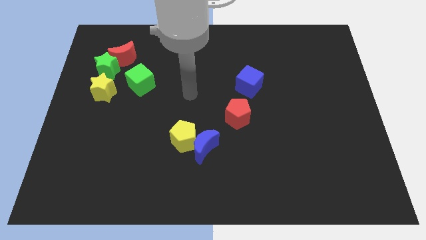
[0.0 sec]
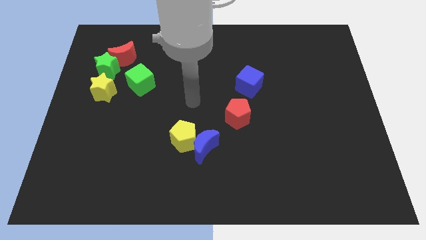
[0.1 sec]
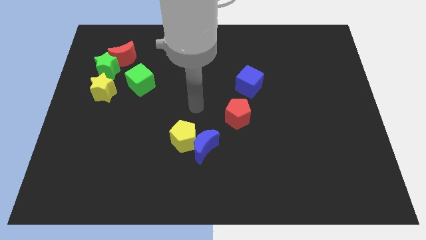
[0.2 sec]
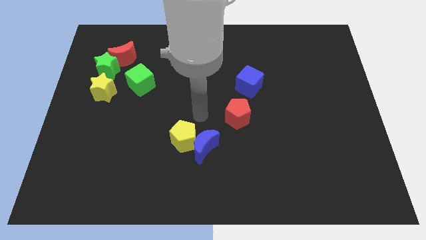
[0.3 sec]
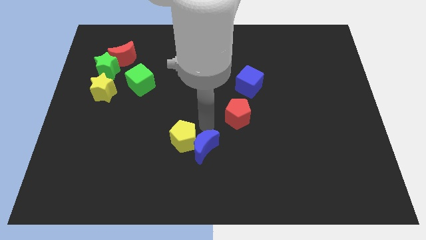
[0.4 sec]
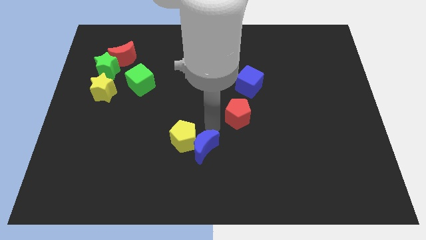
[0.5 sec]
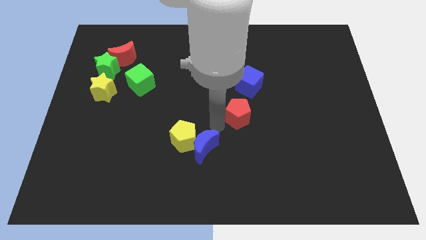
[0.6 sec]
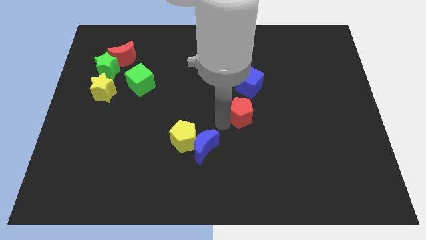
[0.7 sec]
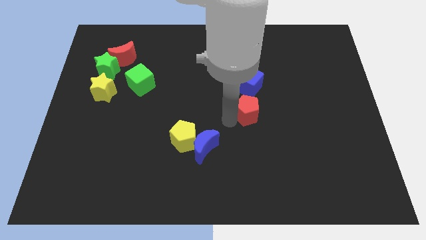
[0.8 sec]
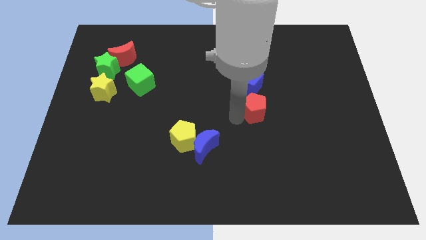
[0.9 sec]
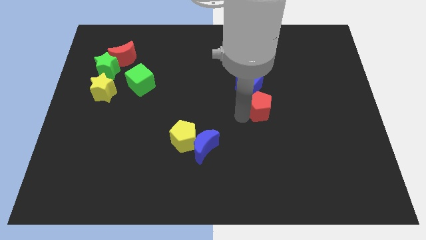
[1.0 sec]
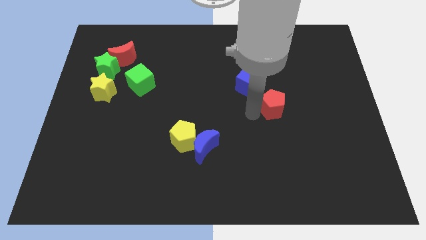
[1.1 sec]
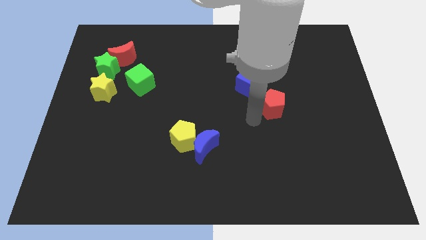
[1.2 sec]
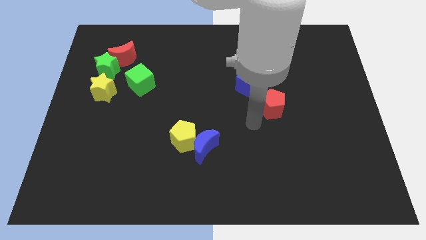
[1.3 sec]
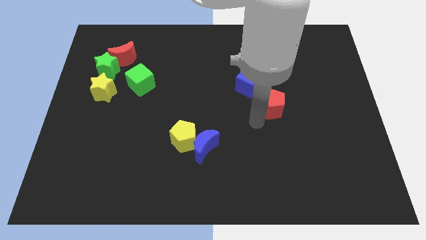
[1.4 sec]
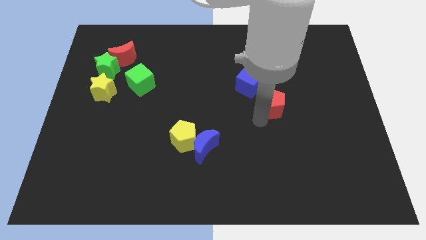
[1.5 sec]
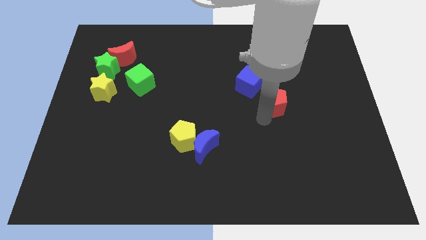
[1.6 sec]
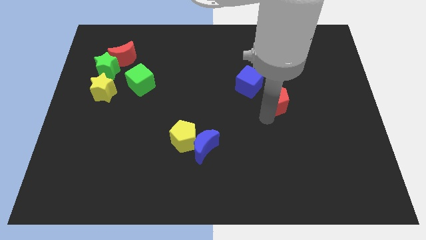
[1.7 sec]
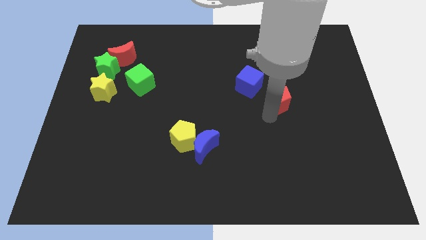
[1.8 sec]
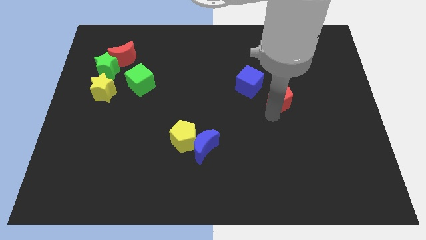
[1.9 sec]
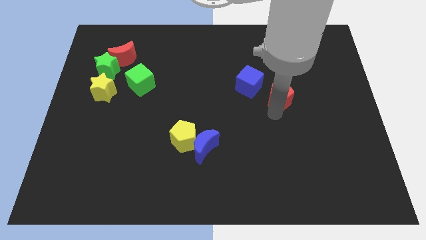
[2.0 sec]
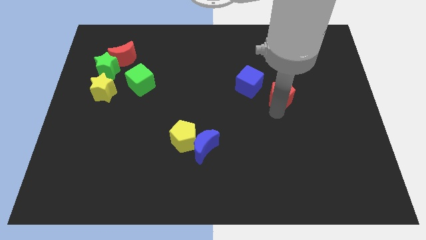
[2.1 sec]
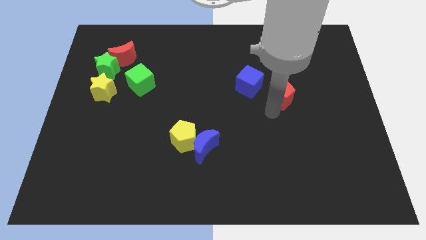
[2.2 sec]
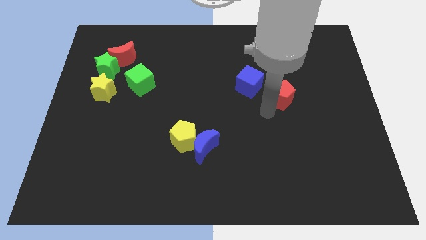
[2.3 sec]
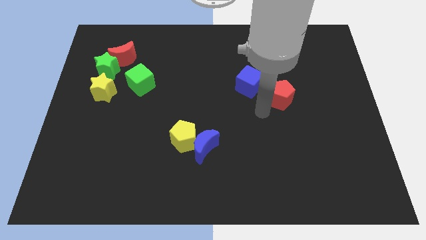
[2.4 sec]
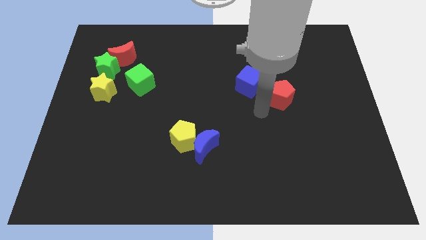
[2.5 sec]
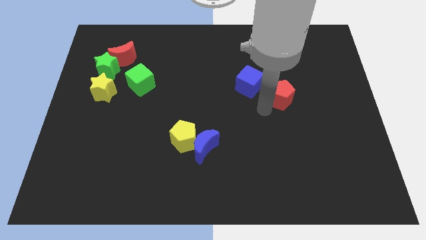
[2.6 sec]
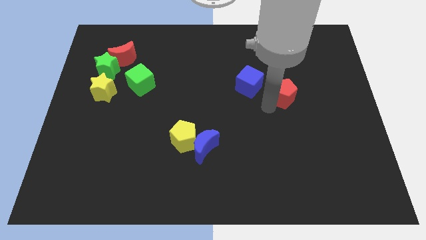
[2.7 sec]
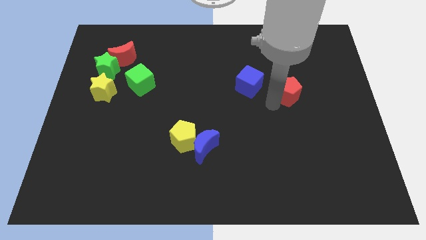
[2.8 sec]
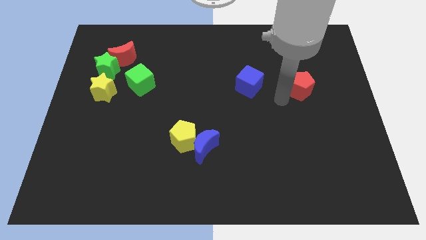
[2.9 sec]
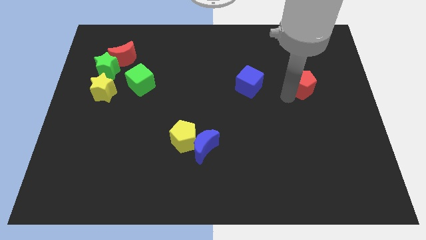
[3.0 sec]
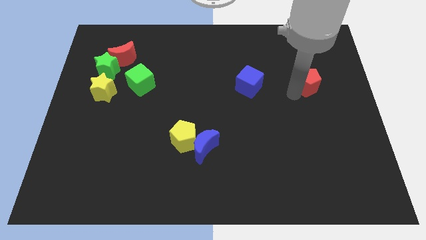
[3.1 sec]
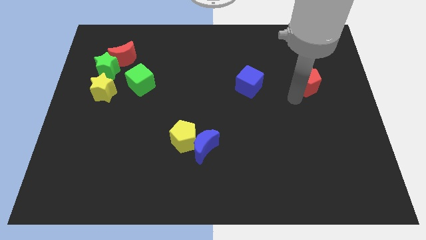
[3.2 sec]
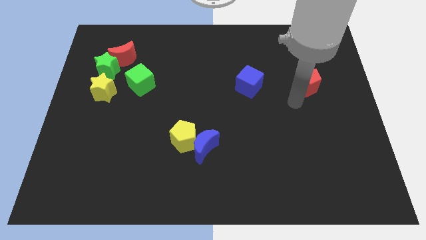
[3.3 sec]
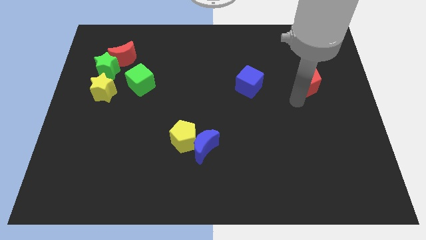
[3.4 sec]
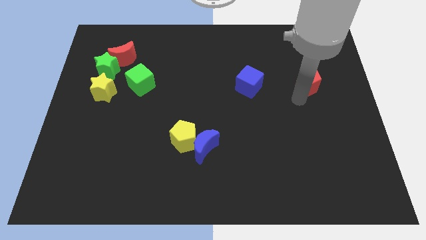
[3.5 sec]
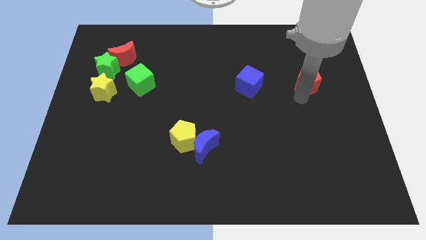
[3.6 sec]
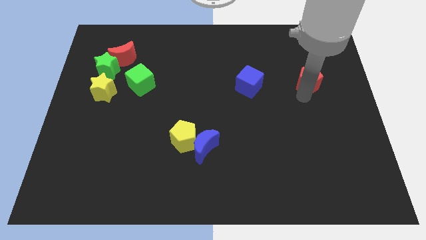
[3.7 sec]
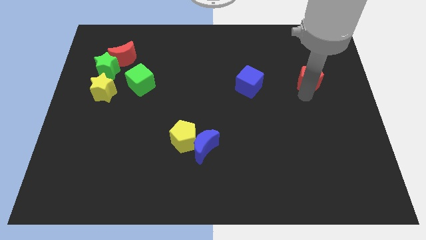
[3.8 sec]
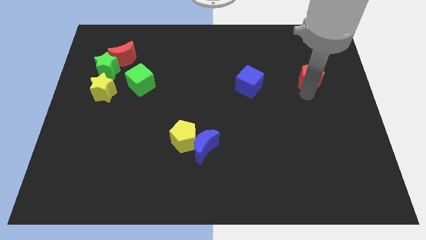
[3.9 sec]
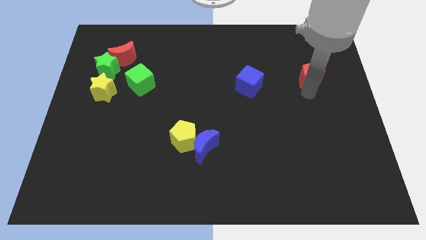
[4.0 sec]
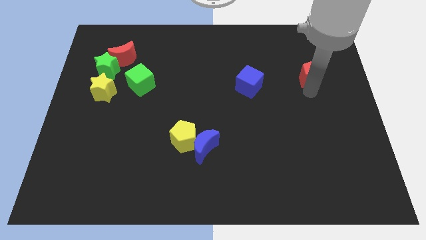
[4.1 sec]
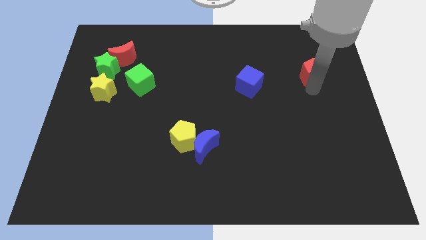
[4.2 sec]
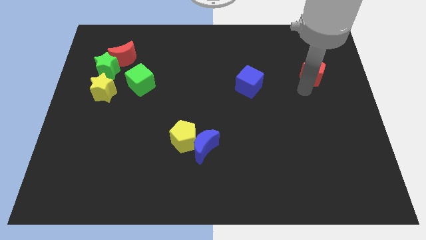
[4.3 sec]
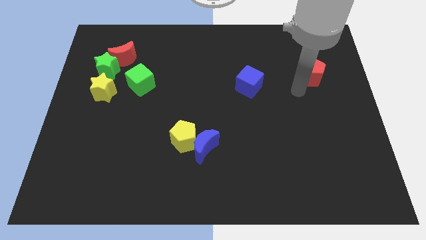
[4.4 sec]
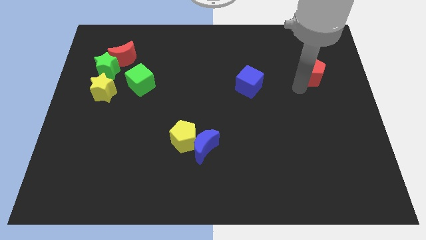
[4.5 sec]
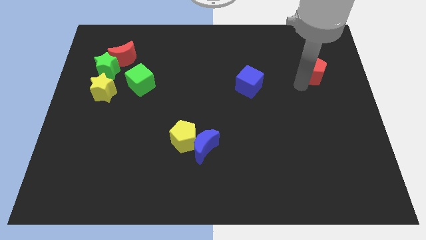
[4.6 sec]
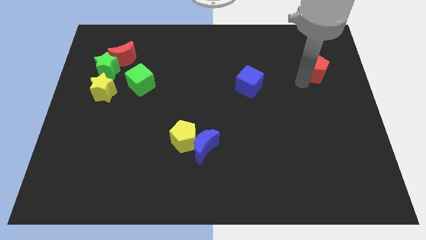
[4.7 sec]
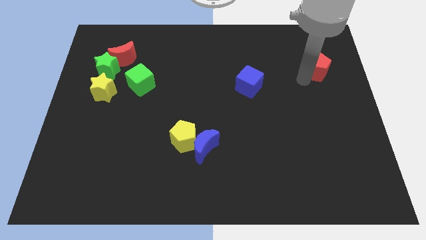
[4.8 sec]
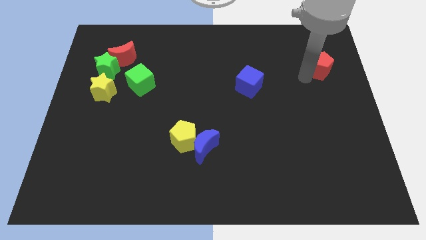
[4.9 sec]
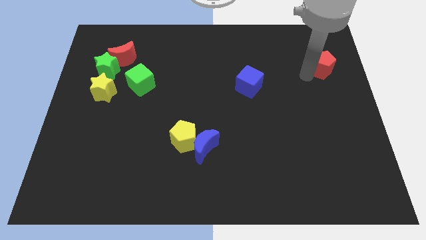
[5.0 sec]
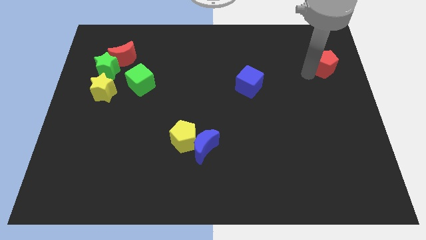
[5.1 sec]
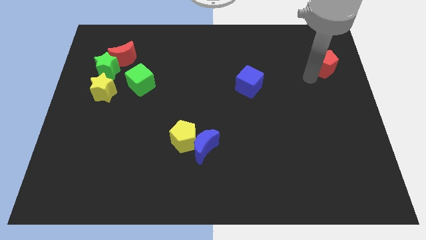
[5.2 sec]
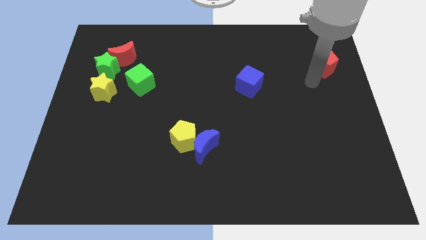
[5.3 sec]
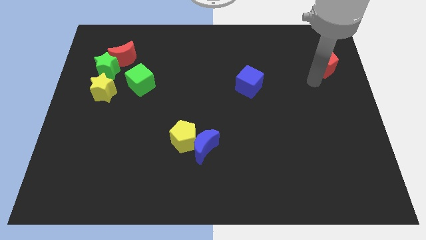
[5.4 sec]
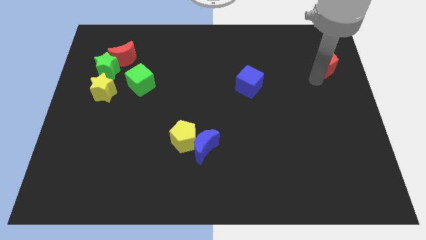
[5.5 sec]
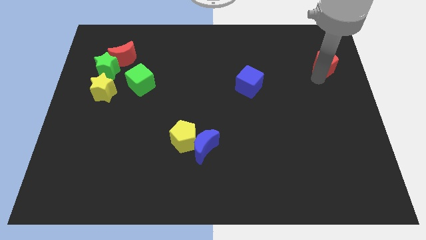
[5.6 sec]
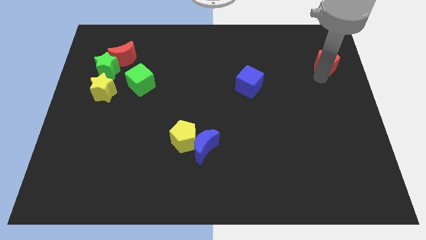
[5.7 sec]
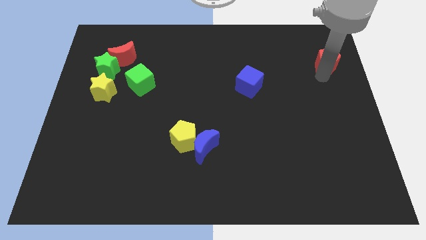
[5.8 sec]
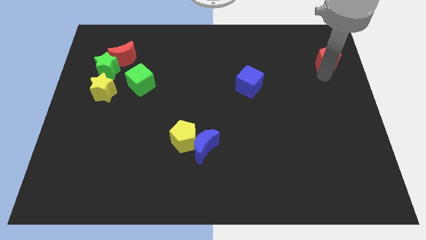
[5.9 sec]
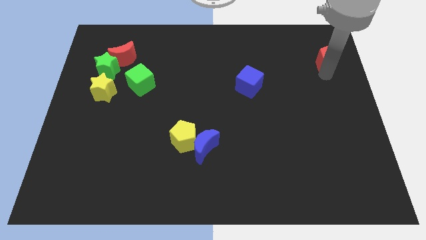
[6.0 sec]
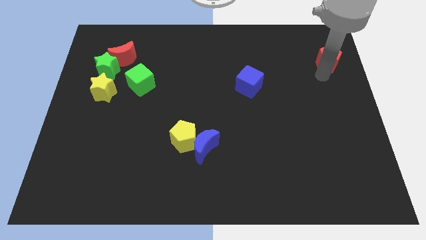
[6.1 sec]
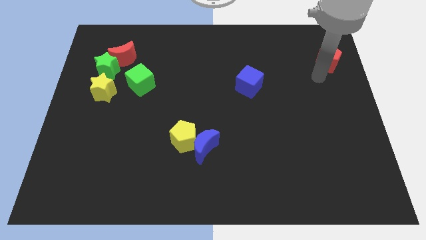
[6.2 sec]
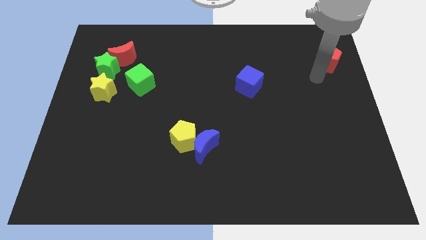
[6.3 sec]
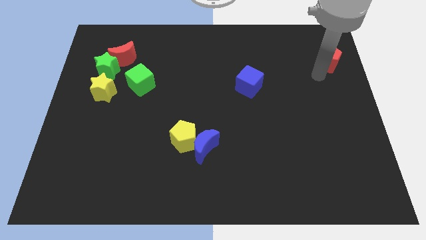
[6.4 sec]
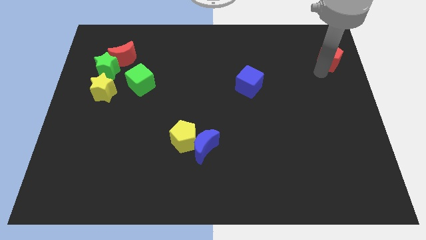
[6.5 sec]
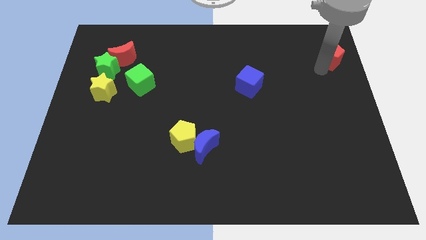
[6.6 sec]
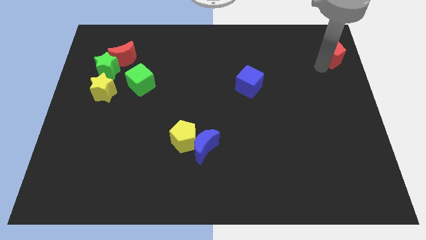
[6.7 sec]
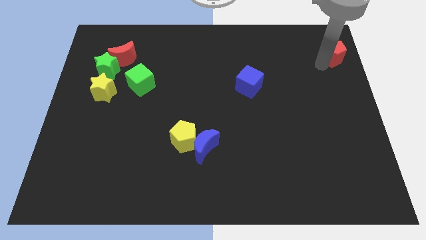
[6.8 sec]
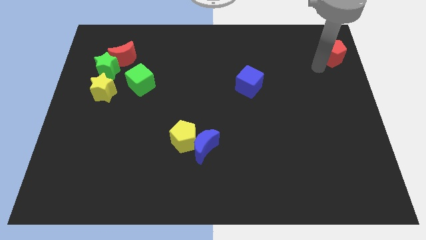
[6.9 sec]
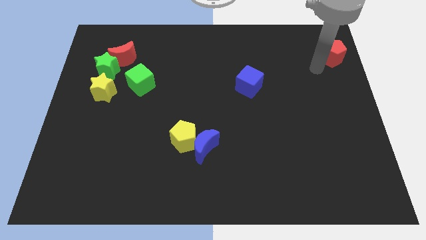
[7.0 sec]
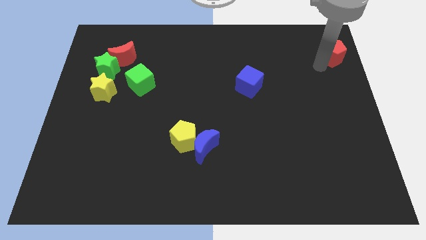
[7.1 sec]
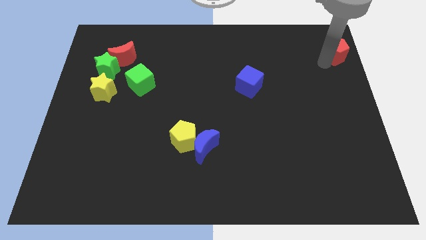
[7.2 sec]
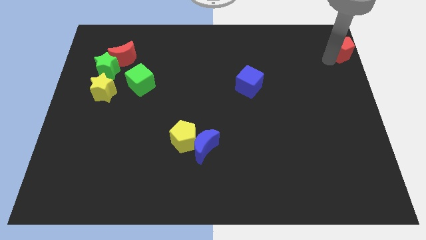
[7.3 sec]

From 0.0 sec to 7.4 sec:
slide the red pentagon to the top right of the board

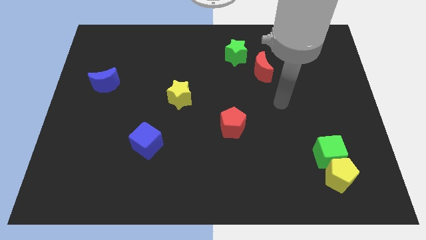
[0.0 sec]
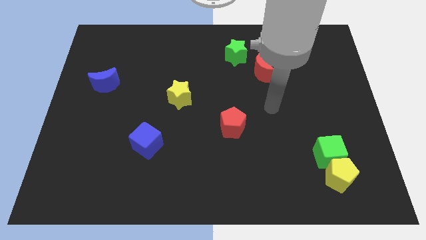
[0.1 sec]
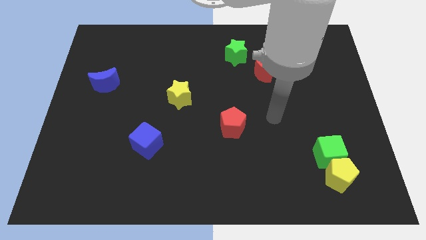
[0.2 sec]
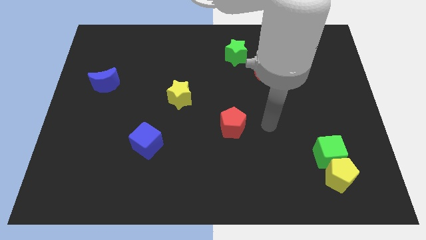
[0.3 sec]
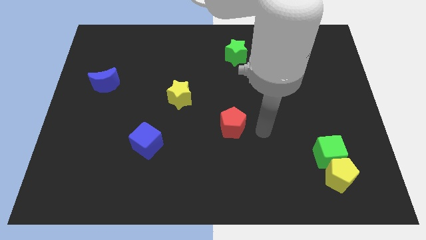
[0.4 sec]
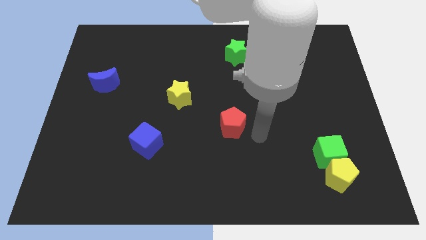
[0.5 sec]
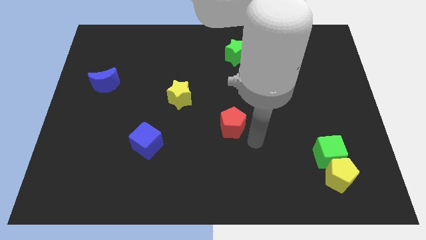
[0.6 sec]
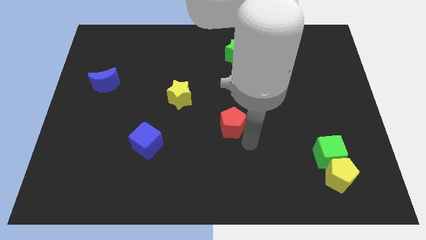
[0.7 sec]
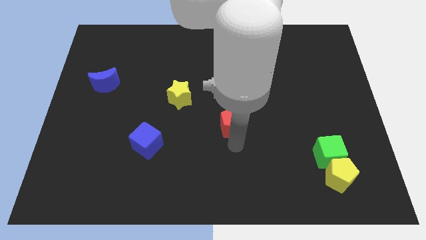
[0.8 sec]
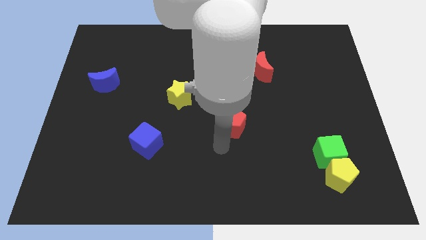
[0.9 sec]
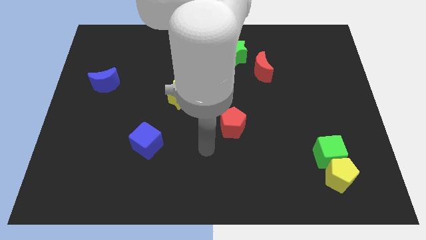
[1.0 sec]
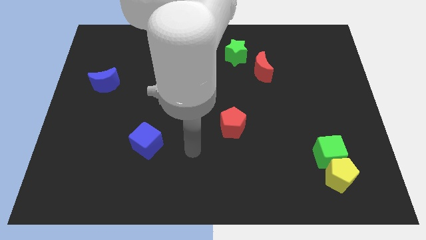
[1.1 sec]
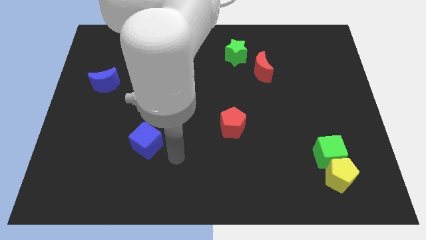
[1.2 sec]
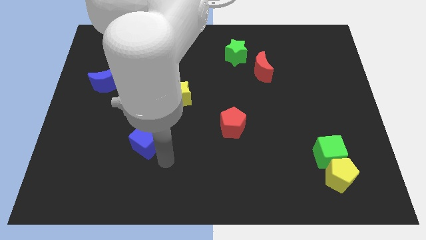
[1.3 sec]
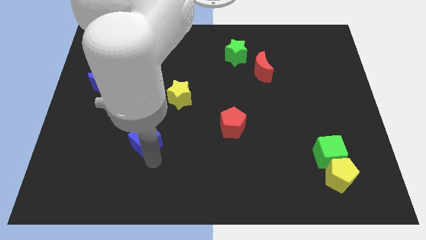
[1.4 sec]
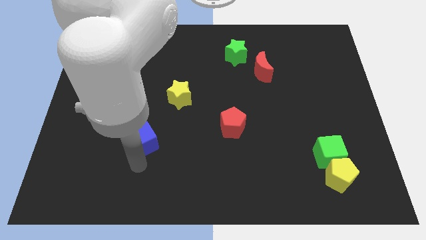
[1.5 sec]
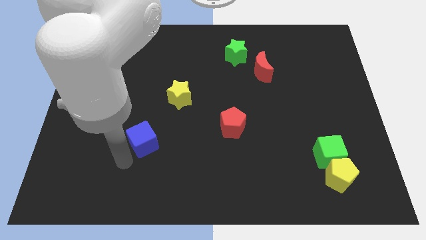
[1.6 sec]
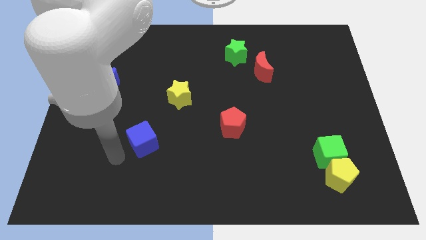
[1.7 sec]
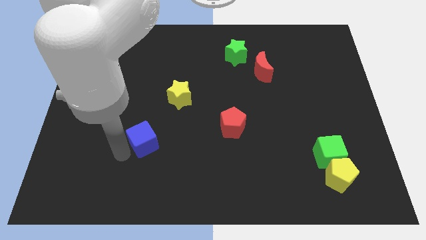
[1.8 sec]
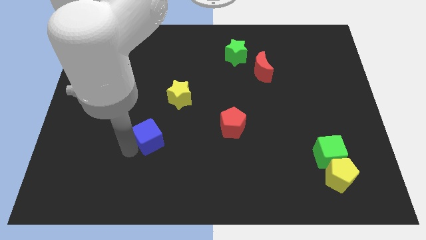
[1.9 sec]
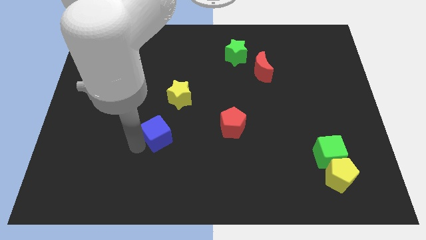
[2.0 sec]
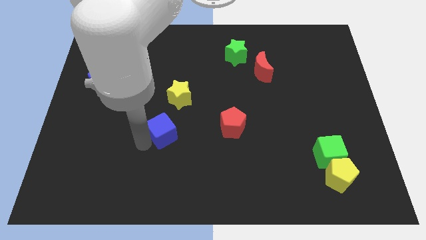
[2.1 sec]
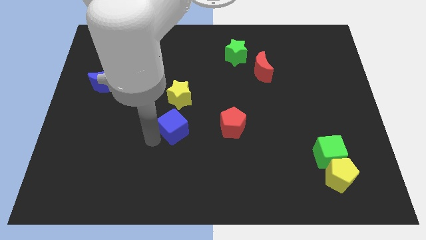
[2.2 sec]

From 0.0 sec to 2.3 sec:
move the blue cube to the middle
